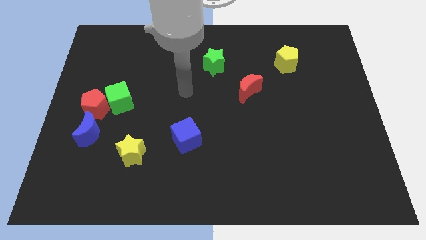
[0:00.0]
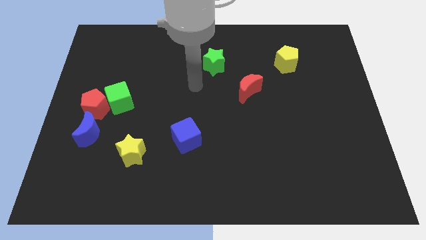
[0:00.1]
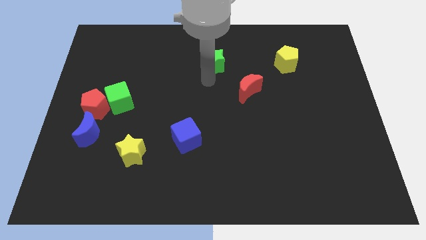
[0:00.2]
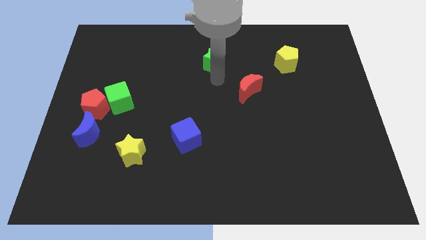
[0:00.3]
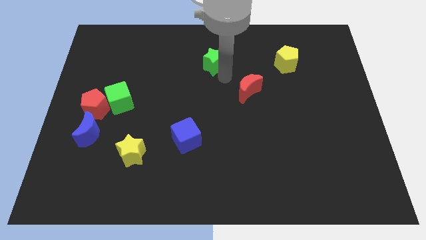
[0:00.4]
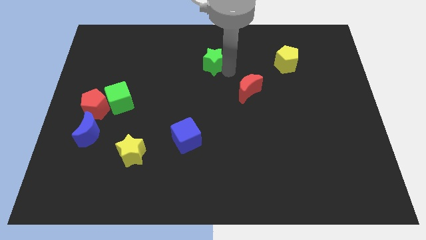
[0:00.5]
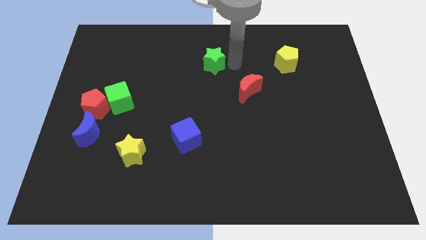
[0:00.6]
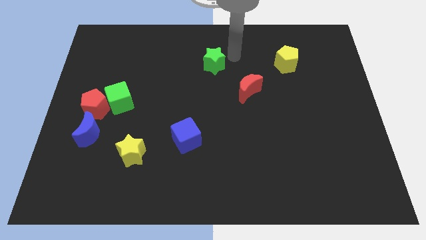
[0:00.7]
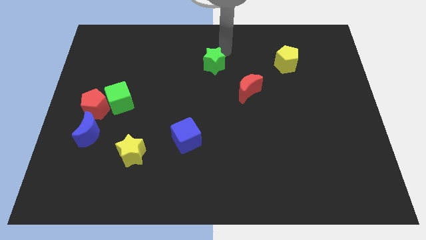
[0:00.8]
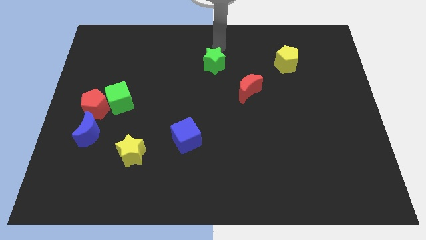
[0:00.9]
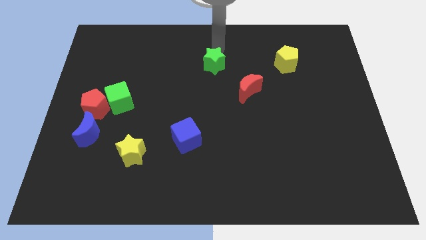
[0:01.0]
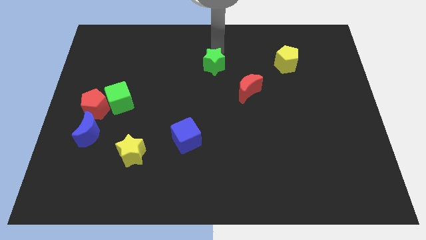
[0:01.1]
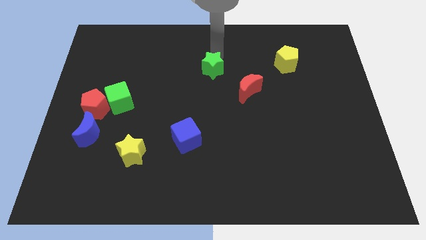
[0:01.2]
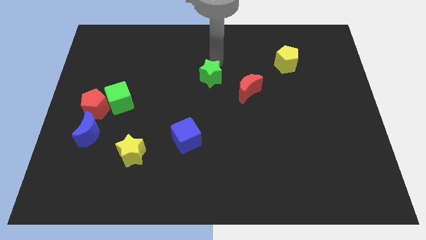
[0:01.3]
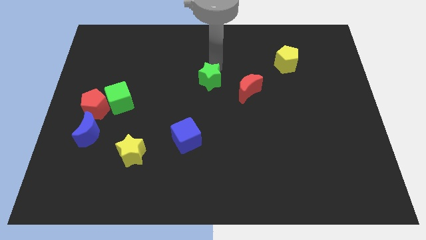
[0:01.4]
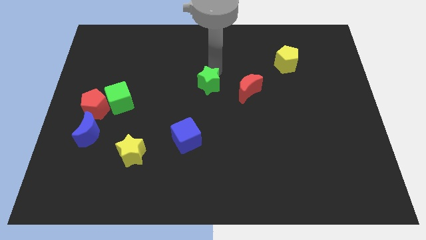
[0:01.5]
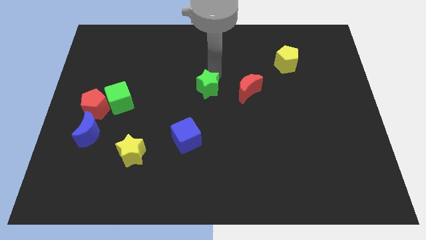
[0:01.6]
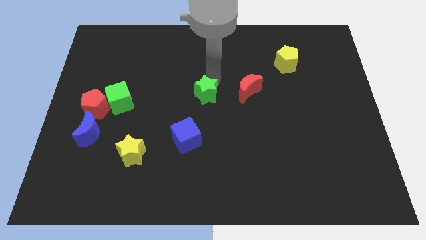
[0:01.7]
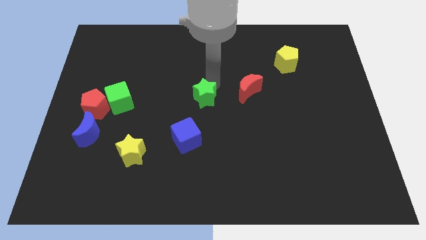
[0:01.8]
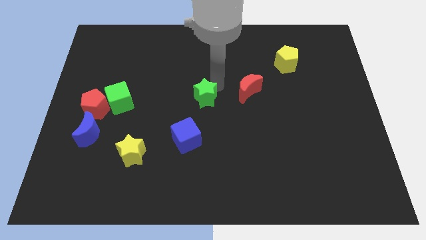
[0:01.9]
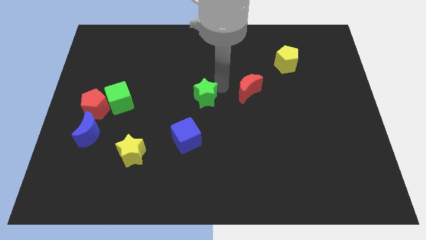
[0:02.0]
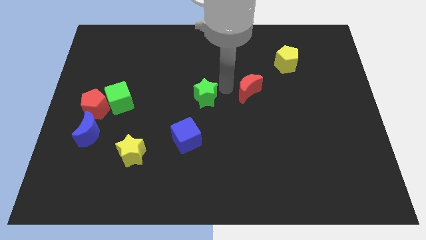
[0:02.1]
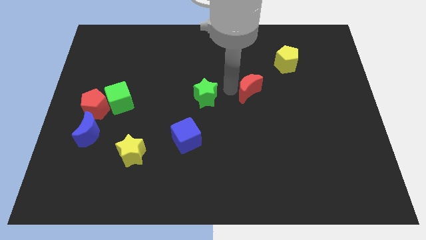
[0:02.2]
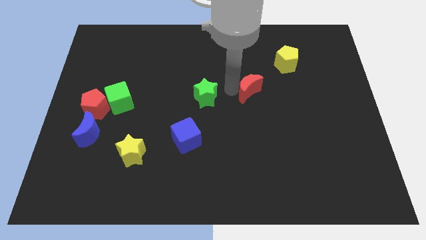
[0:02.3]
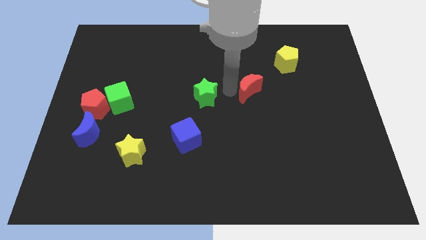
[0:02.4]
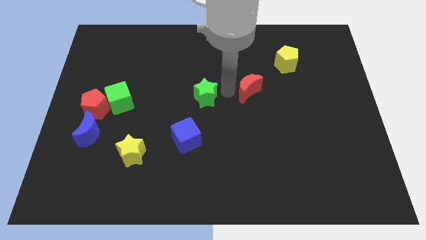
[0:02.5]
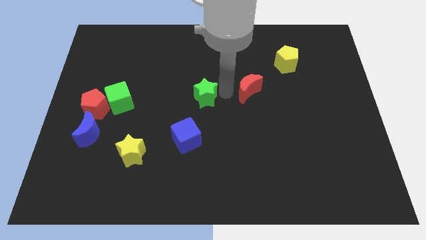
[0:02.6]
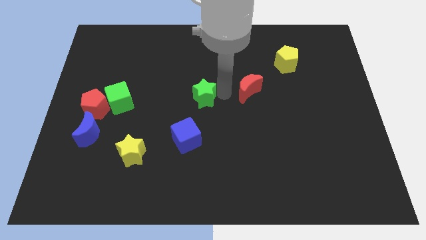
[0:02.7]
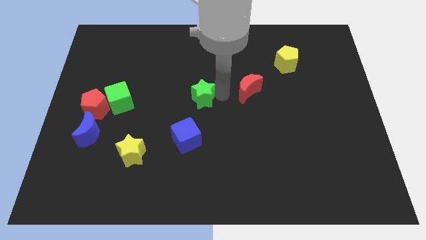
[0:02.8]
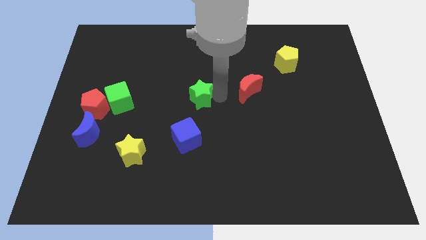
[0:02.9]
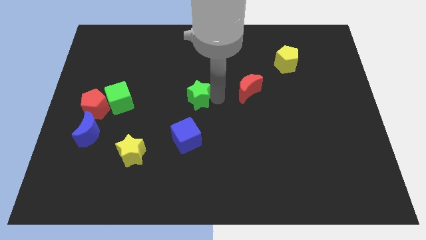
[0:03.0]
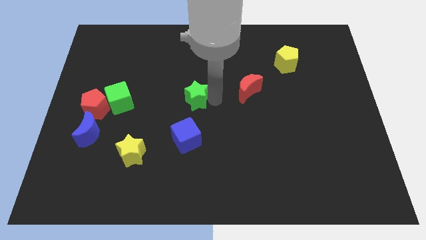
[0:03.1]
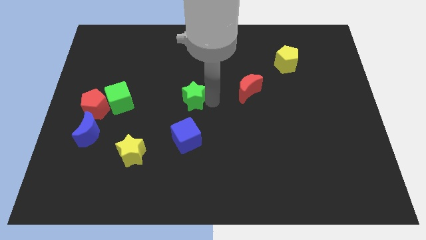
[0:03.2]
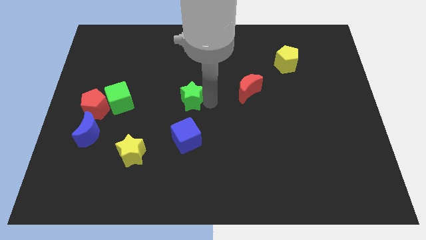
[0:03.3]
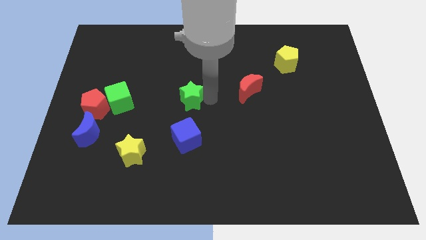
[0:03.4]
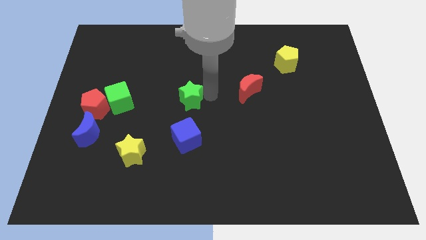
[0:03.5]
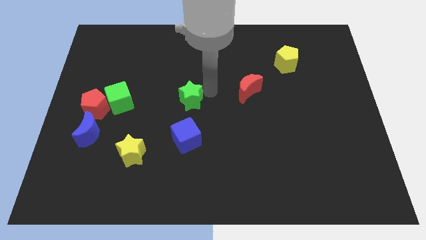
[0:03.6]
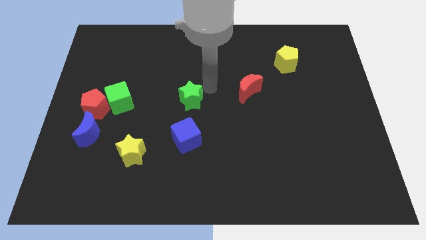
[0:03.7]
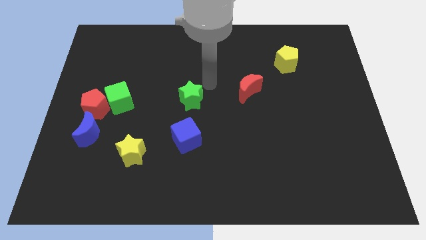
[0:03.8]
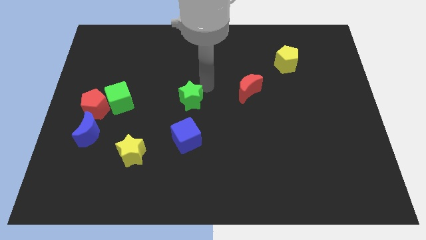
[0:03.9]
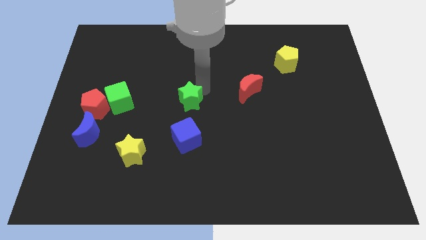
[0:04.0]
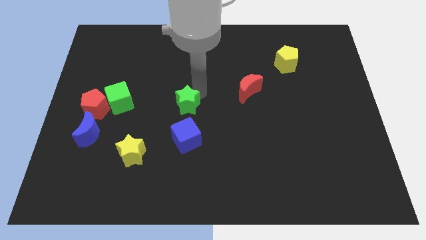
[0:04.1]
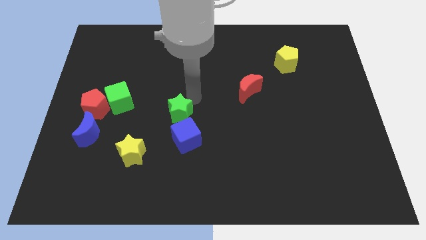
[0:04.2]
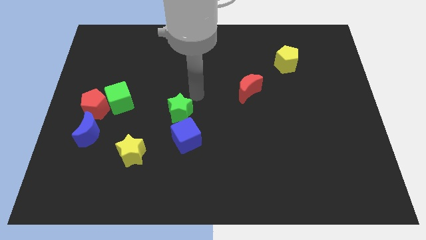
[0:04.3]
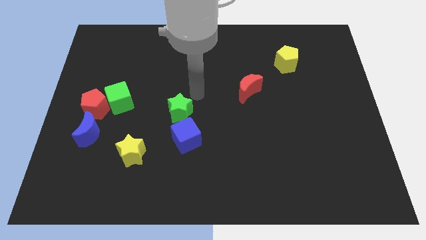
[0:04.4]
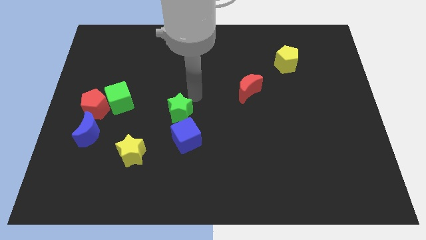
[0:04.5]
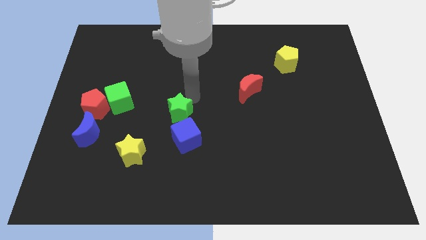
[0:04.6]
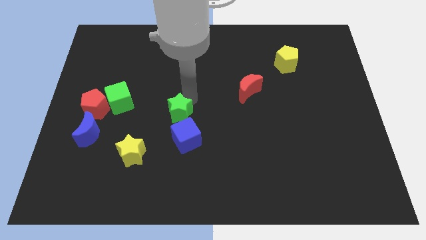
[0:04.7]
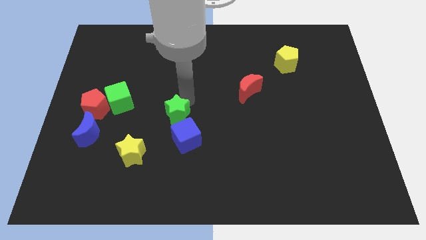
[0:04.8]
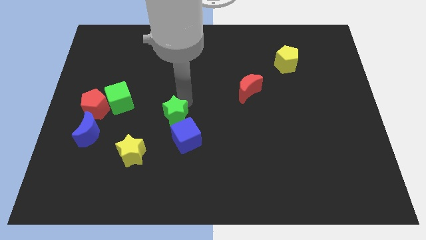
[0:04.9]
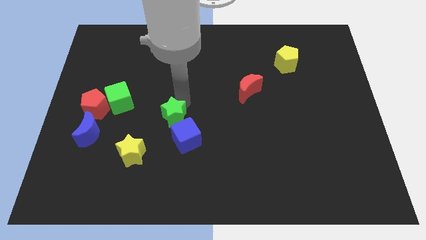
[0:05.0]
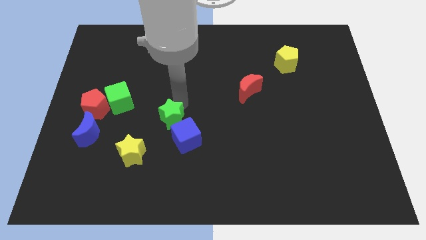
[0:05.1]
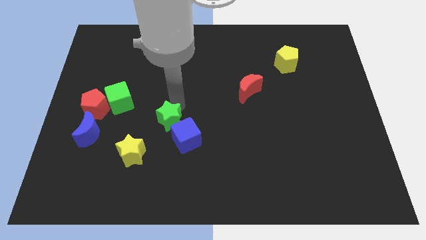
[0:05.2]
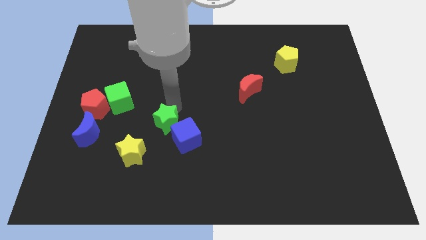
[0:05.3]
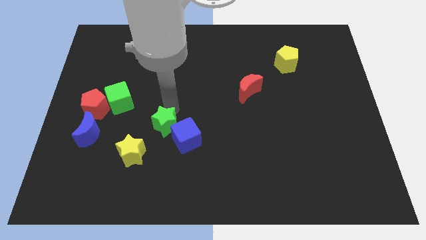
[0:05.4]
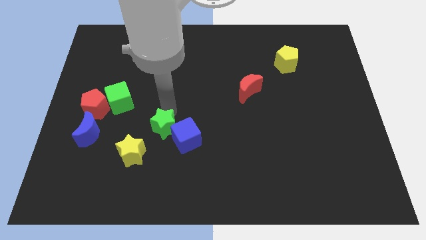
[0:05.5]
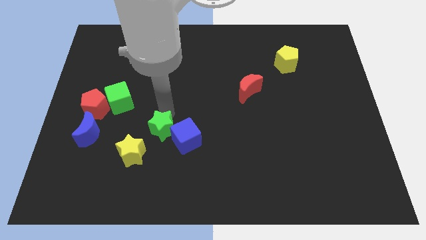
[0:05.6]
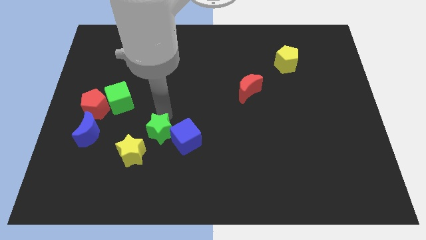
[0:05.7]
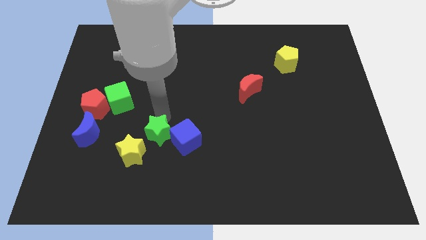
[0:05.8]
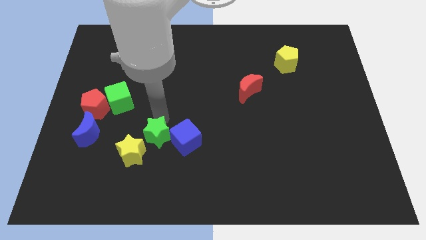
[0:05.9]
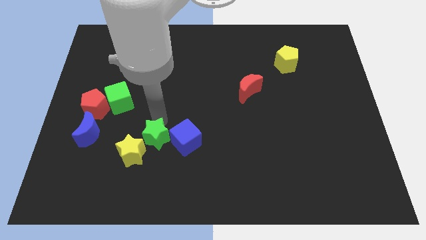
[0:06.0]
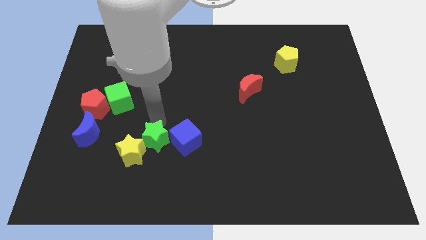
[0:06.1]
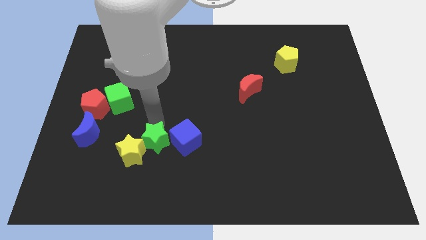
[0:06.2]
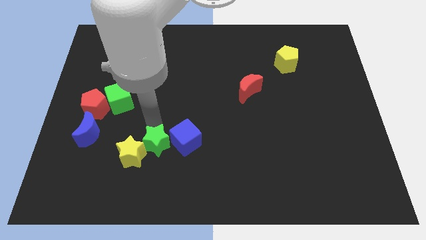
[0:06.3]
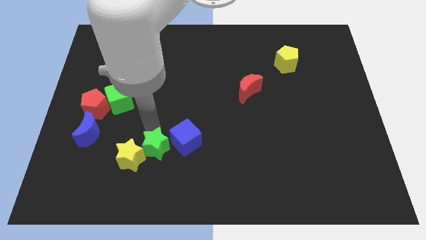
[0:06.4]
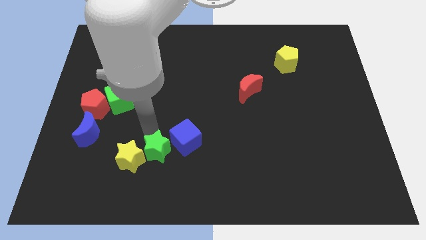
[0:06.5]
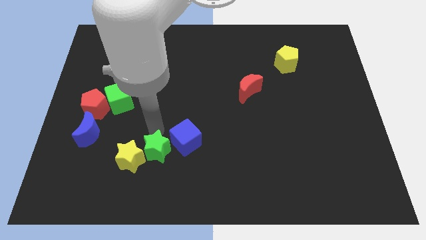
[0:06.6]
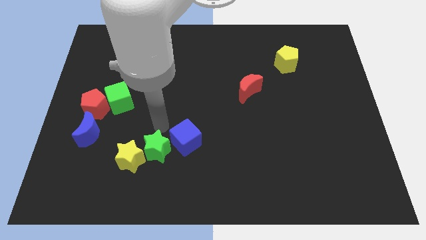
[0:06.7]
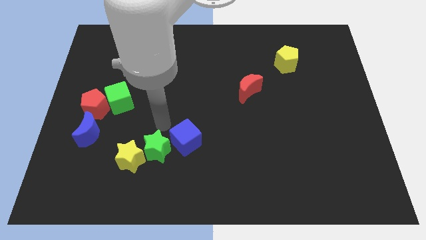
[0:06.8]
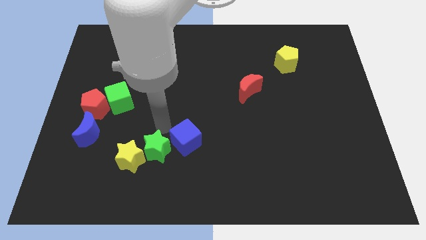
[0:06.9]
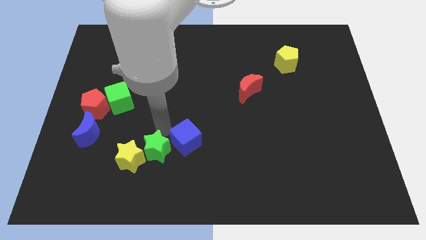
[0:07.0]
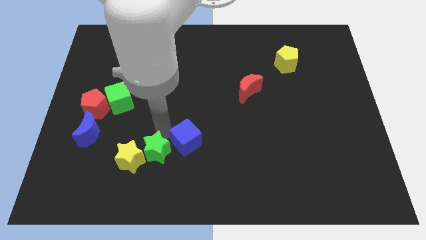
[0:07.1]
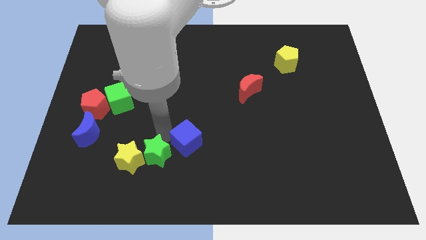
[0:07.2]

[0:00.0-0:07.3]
put the green star diagonally down and to the right of the yellow star
